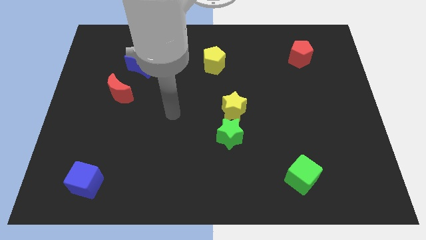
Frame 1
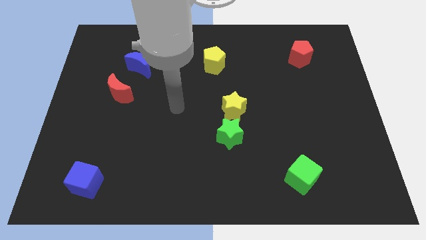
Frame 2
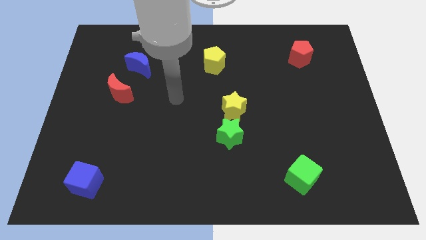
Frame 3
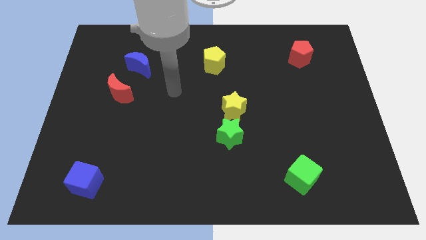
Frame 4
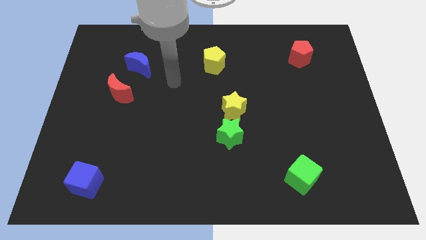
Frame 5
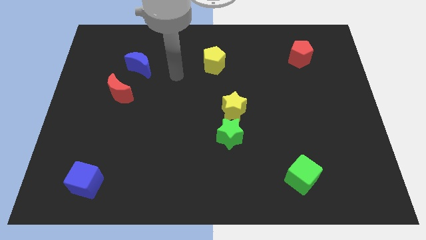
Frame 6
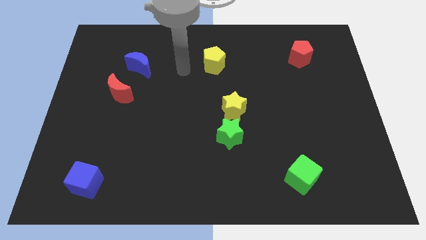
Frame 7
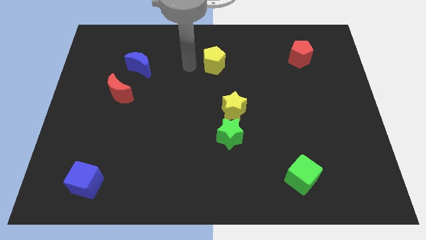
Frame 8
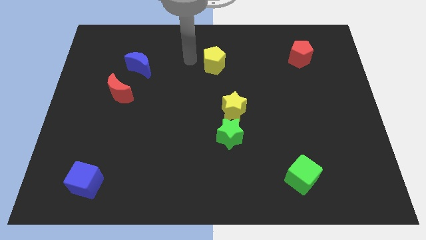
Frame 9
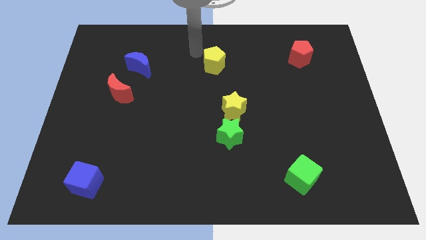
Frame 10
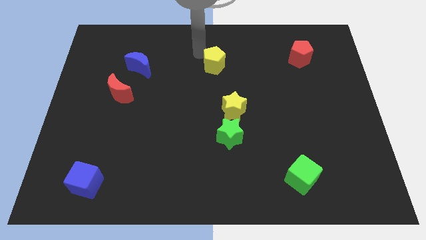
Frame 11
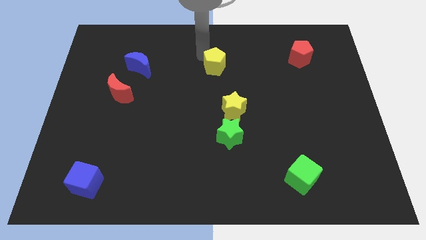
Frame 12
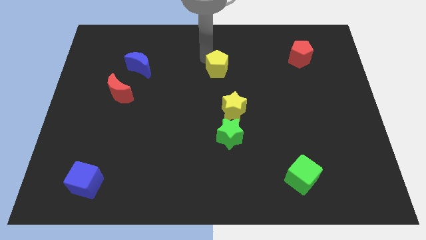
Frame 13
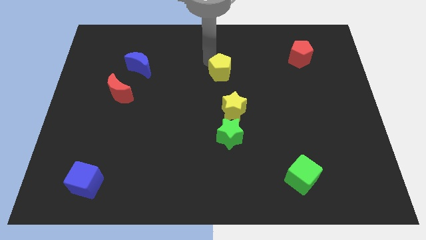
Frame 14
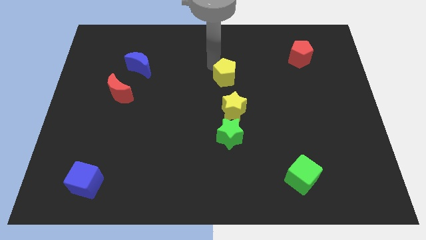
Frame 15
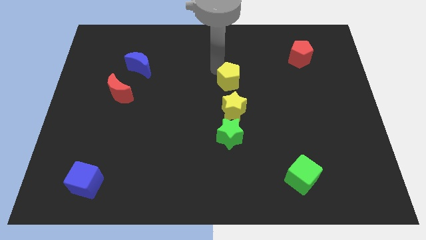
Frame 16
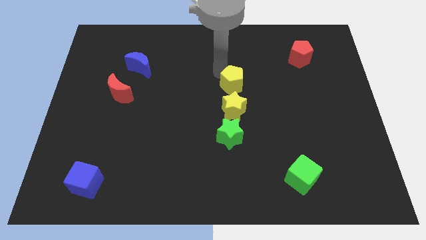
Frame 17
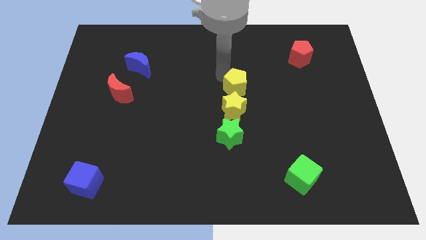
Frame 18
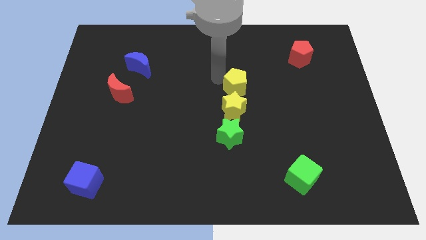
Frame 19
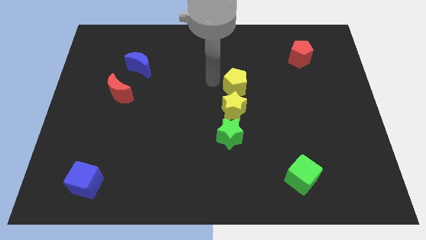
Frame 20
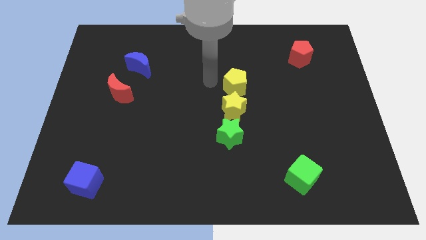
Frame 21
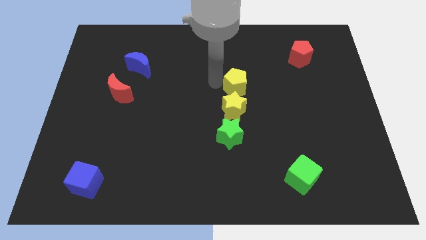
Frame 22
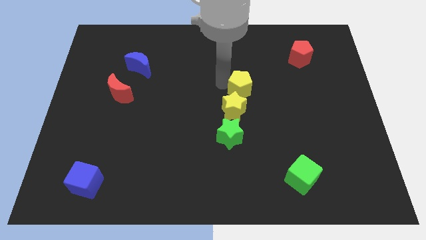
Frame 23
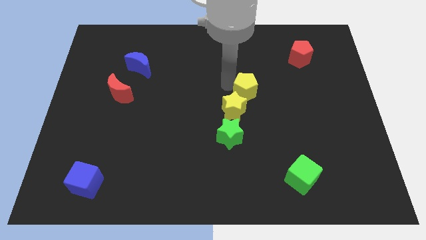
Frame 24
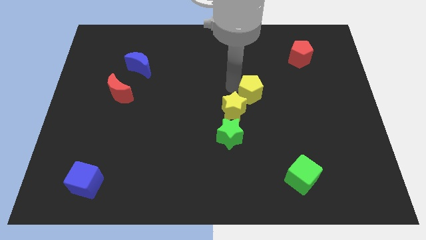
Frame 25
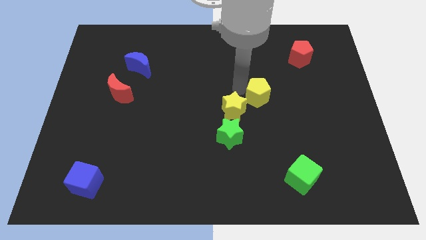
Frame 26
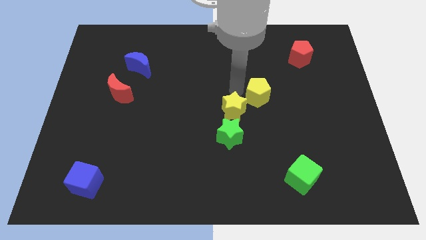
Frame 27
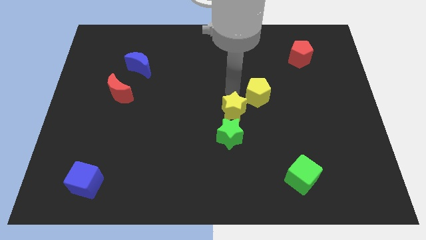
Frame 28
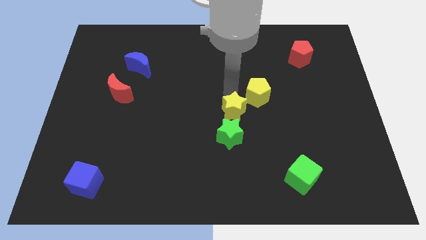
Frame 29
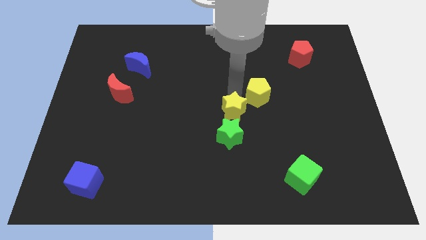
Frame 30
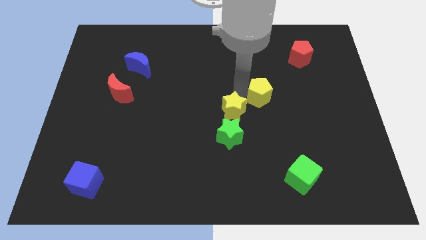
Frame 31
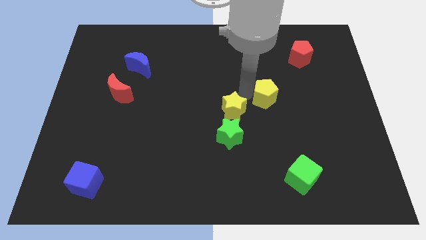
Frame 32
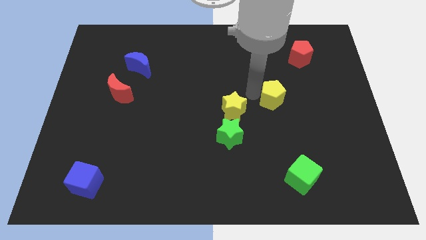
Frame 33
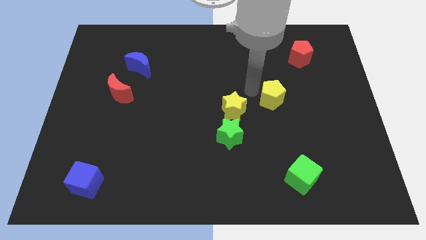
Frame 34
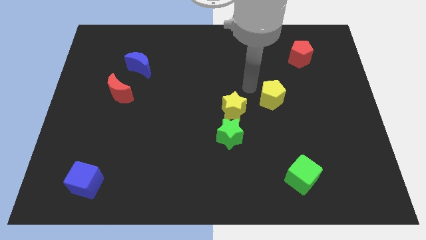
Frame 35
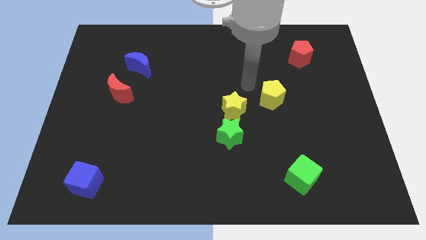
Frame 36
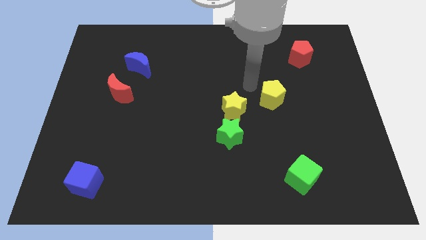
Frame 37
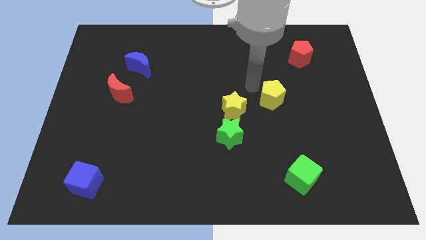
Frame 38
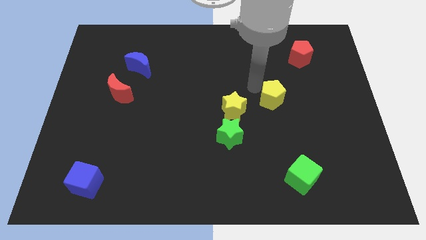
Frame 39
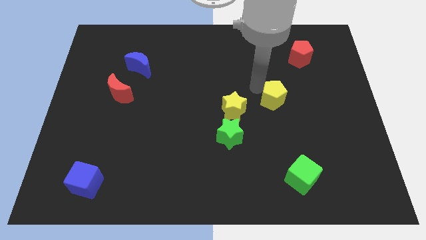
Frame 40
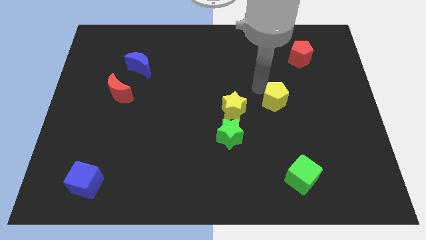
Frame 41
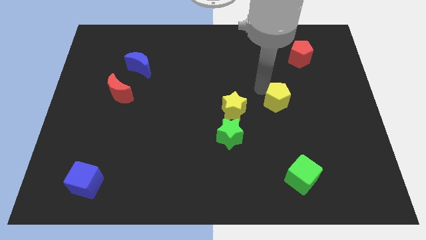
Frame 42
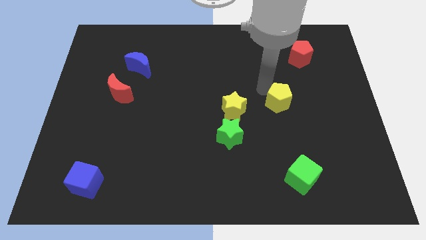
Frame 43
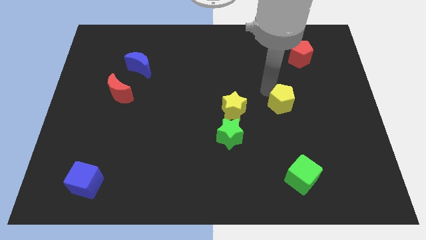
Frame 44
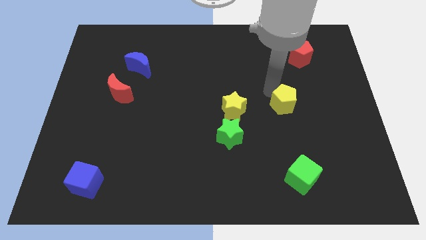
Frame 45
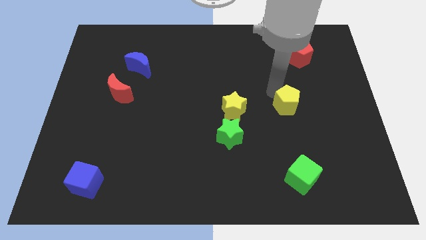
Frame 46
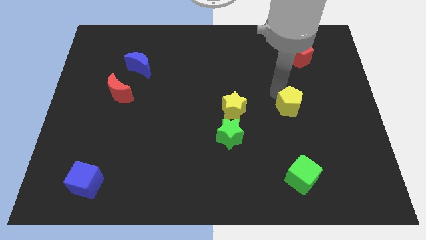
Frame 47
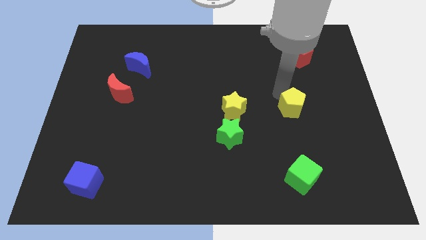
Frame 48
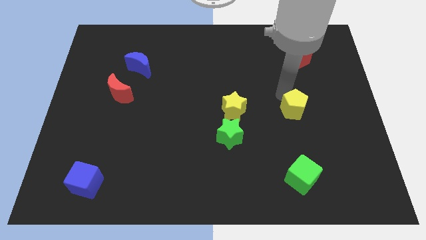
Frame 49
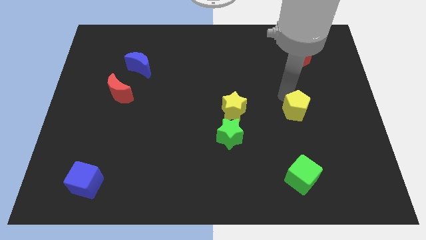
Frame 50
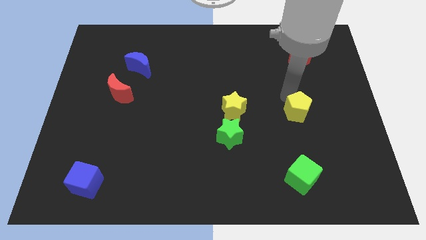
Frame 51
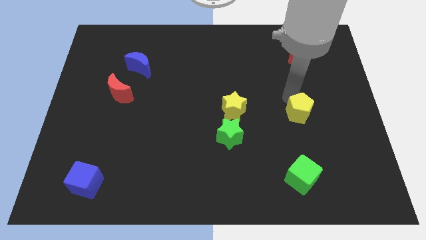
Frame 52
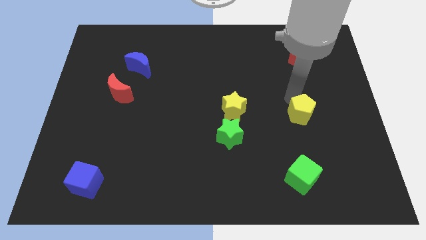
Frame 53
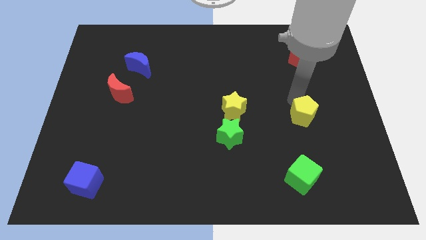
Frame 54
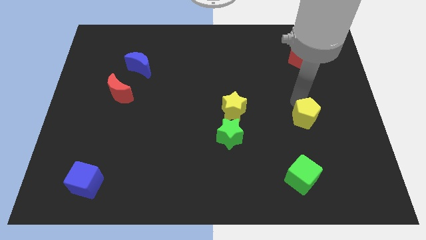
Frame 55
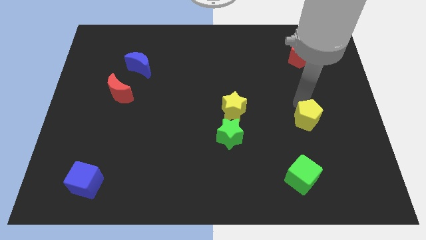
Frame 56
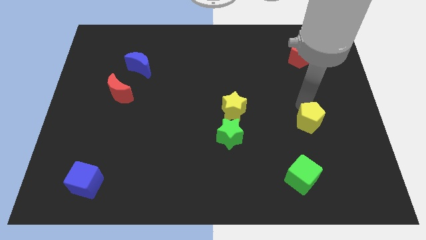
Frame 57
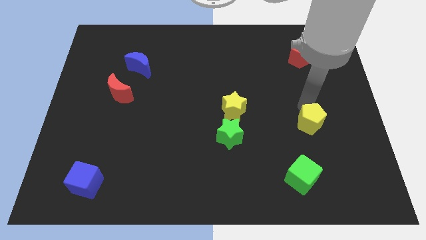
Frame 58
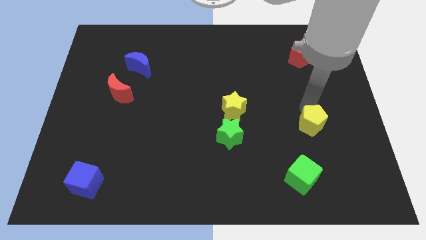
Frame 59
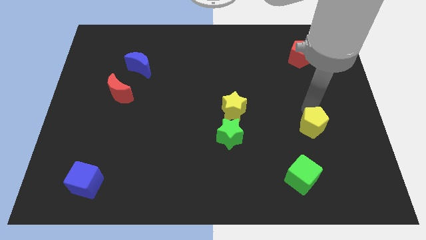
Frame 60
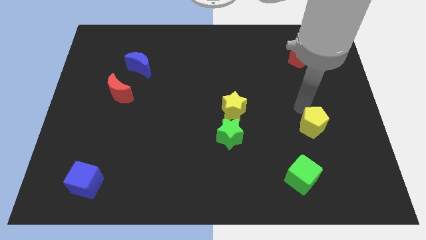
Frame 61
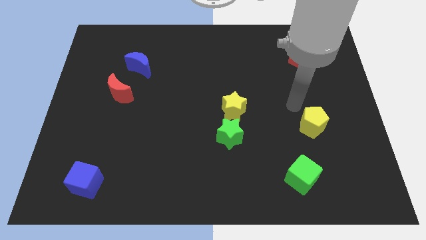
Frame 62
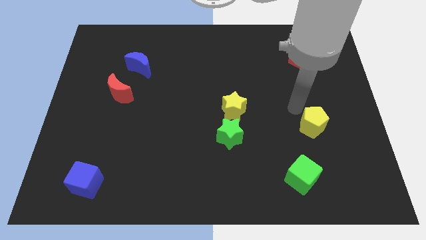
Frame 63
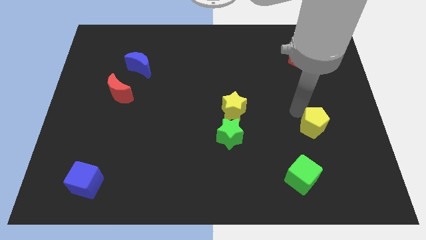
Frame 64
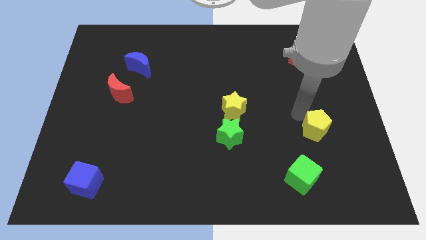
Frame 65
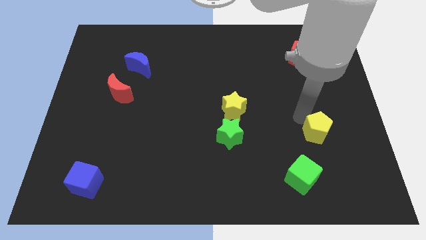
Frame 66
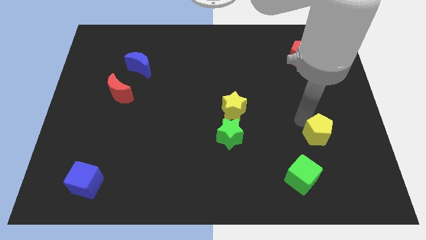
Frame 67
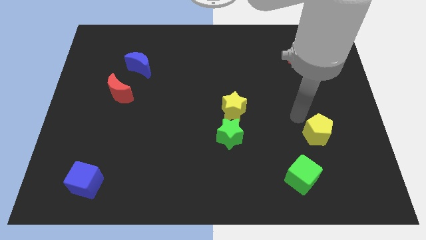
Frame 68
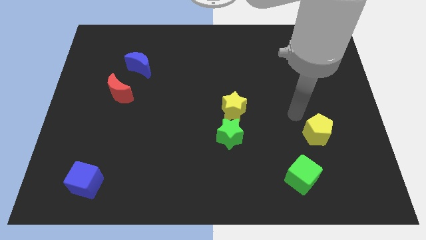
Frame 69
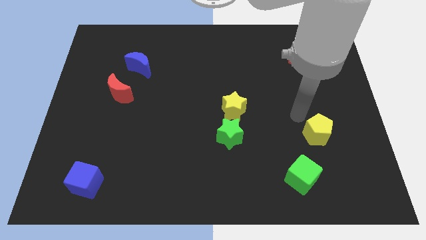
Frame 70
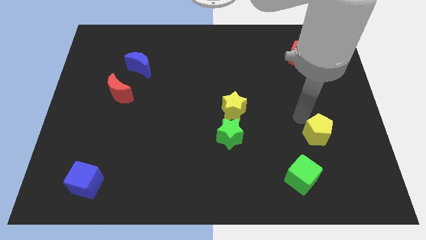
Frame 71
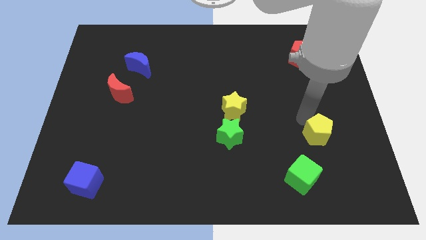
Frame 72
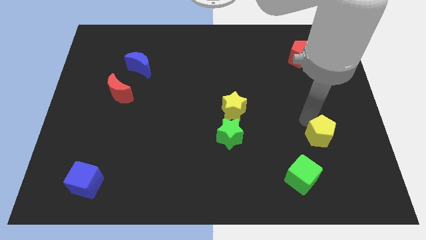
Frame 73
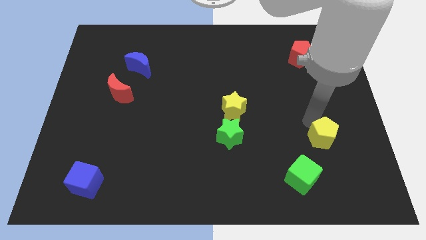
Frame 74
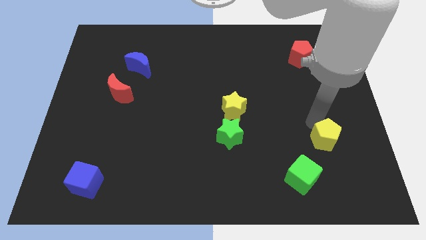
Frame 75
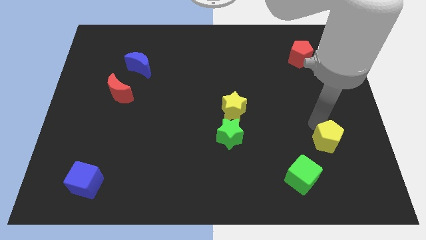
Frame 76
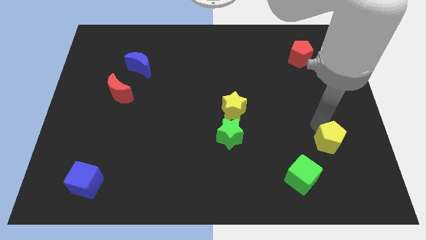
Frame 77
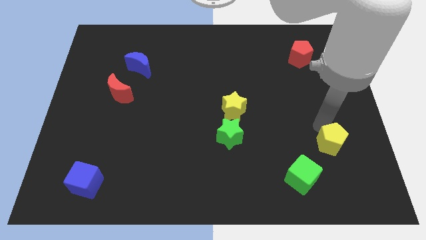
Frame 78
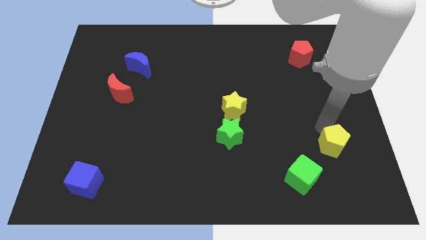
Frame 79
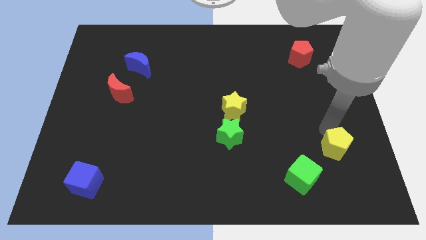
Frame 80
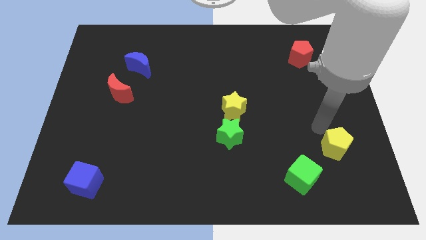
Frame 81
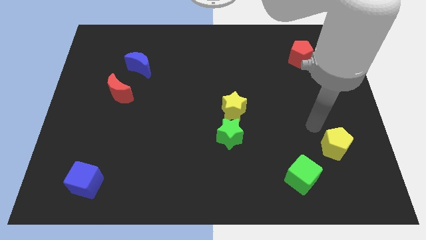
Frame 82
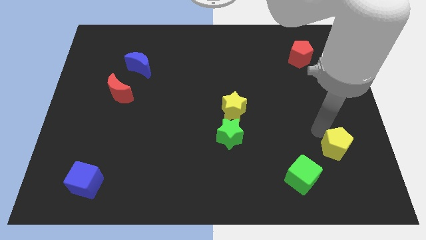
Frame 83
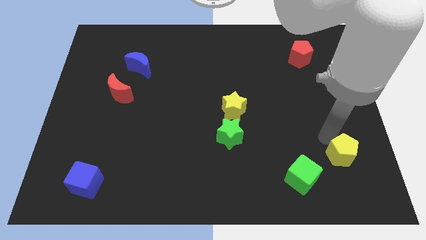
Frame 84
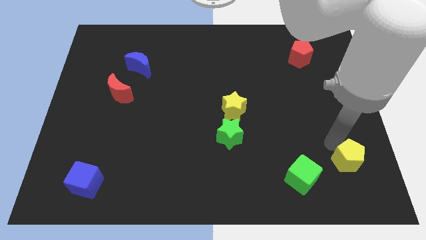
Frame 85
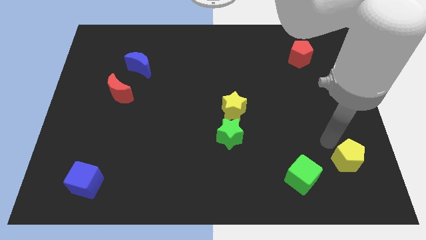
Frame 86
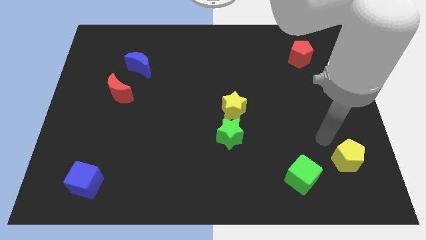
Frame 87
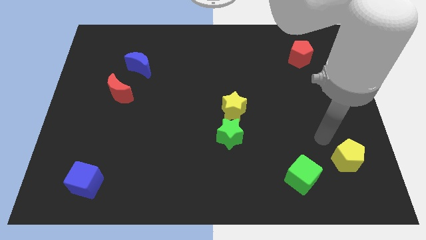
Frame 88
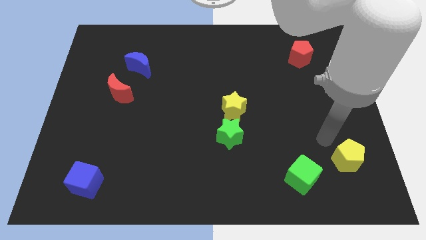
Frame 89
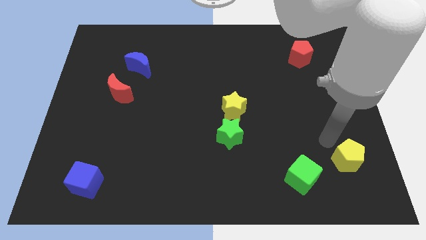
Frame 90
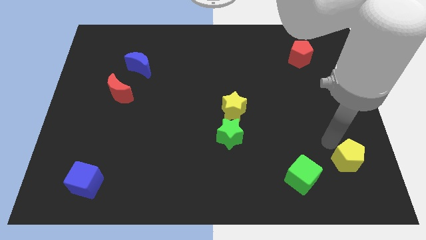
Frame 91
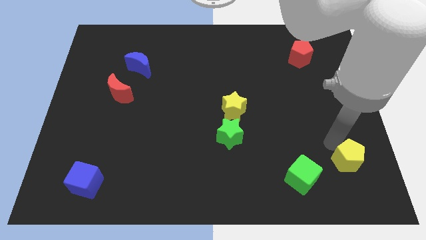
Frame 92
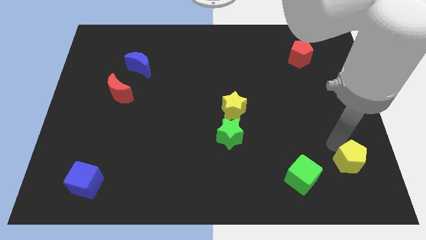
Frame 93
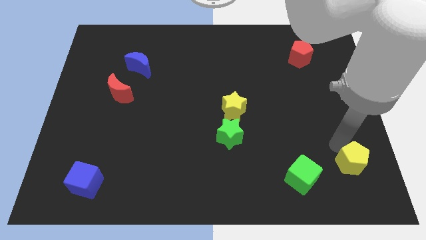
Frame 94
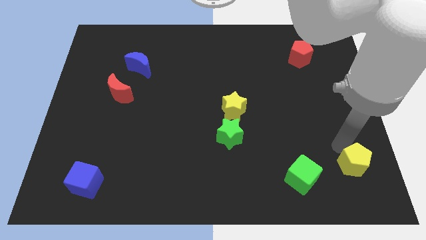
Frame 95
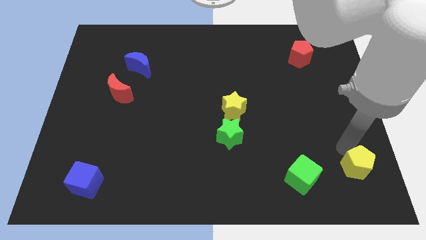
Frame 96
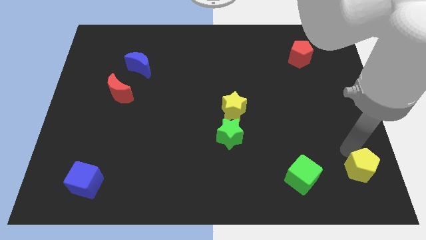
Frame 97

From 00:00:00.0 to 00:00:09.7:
move the yellow pentagon to the bottom right corner
